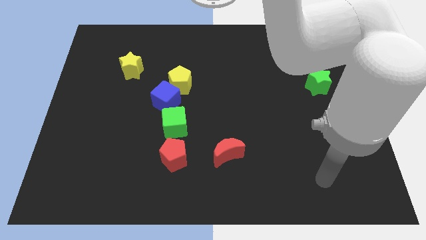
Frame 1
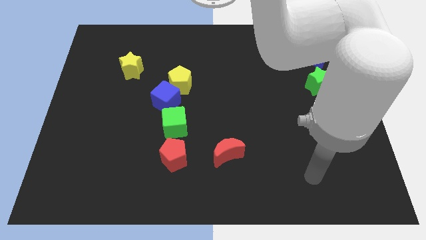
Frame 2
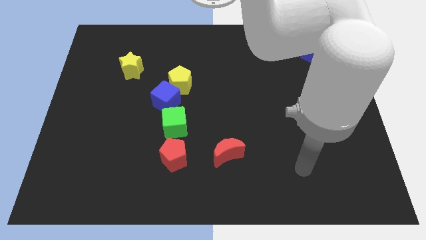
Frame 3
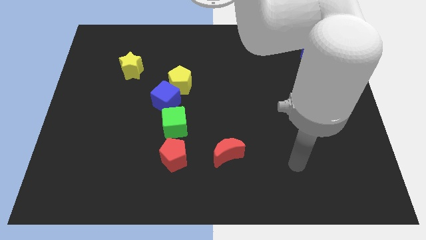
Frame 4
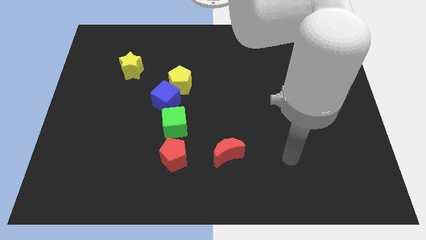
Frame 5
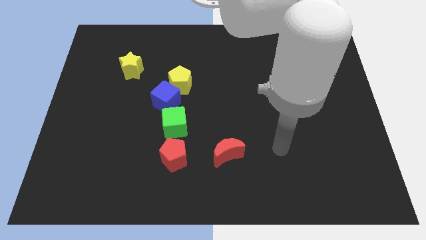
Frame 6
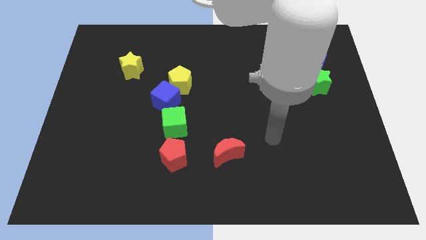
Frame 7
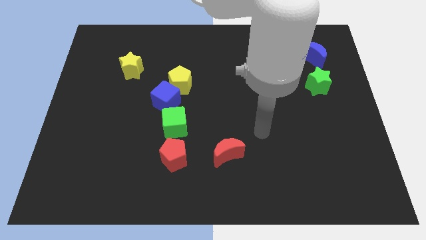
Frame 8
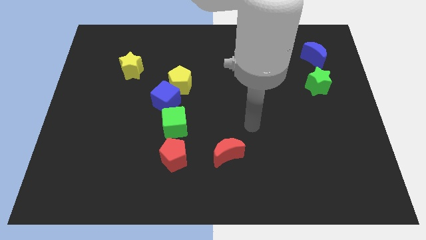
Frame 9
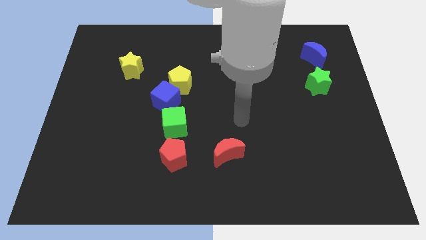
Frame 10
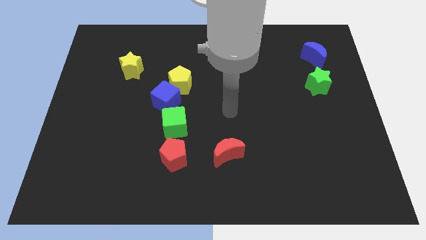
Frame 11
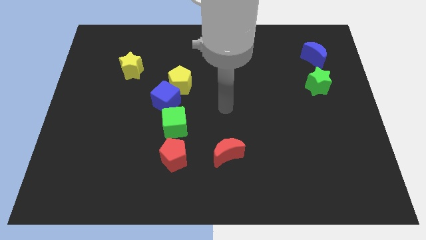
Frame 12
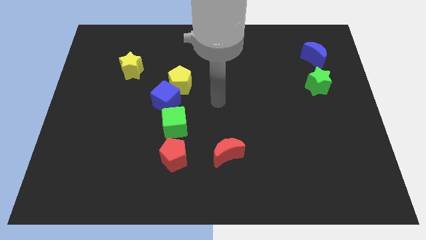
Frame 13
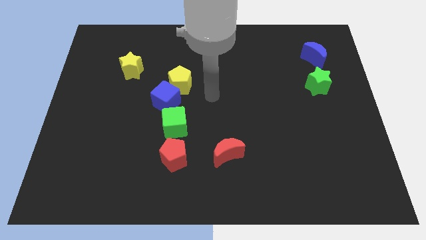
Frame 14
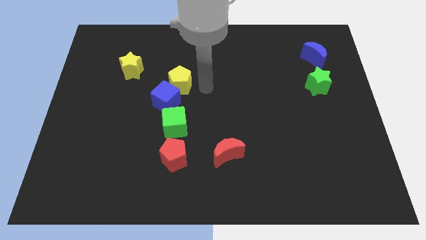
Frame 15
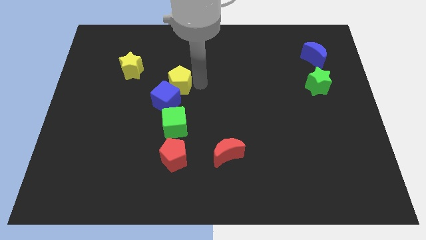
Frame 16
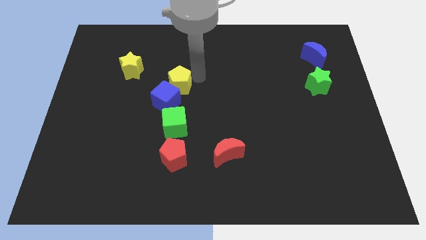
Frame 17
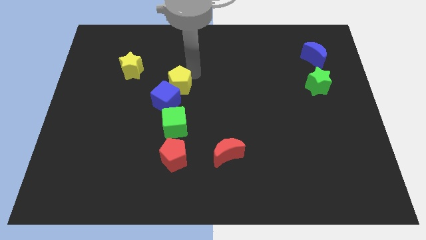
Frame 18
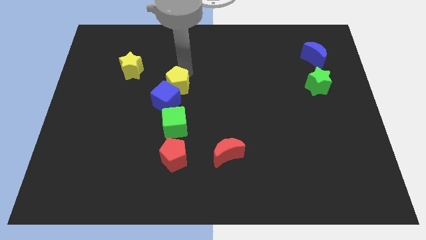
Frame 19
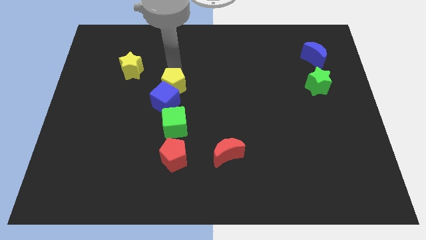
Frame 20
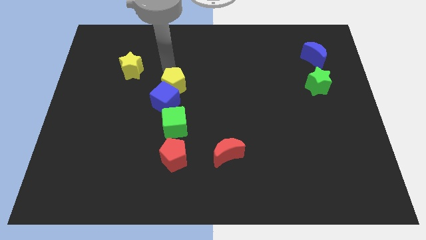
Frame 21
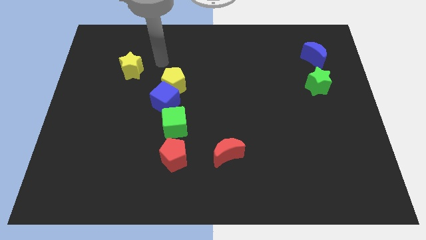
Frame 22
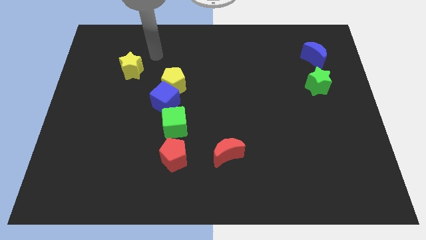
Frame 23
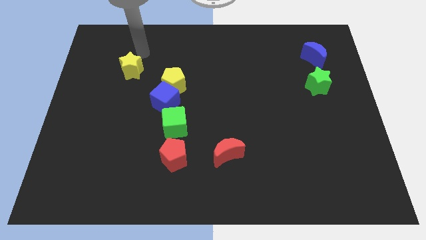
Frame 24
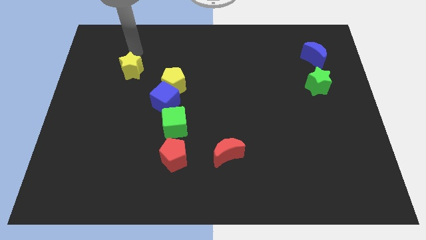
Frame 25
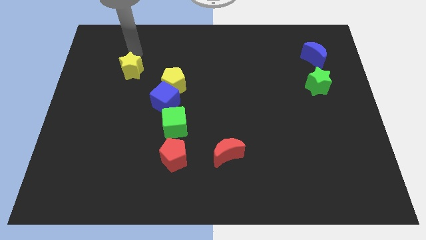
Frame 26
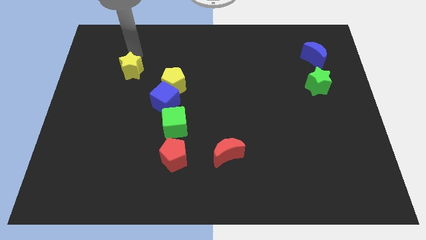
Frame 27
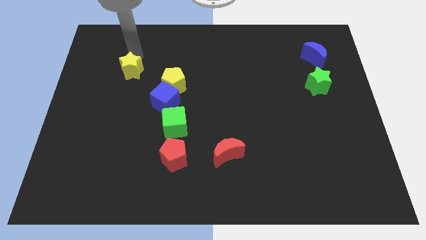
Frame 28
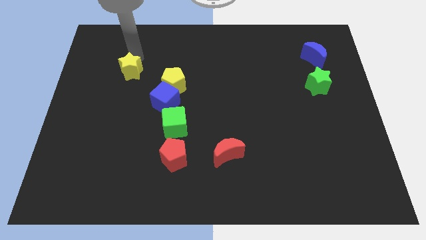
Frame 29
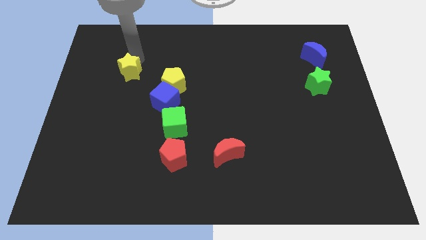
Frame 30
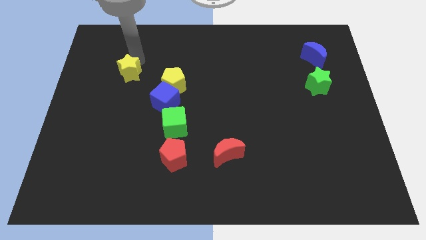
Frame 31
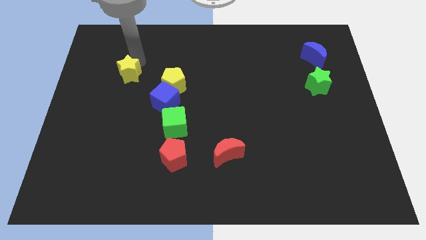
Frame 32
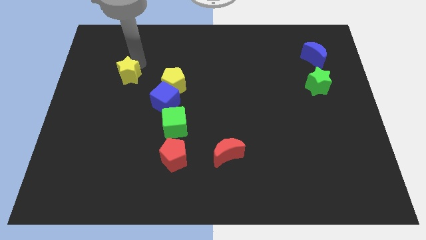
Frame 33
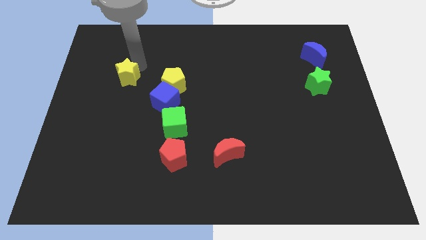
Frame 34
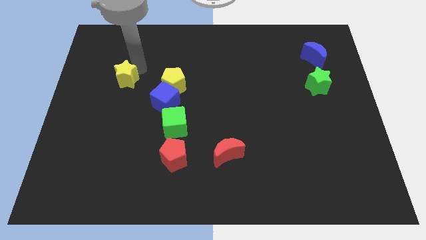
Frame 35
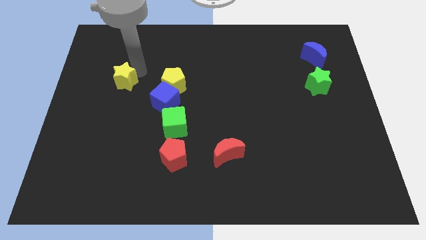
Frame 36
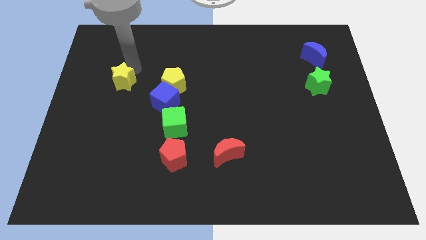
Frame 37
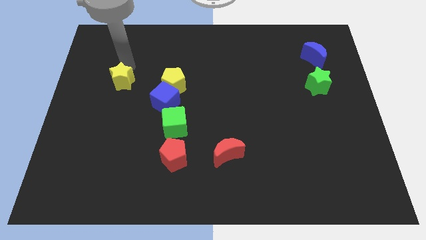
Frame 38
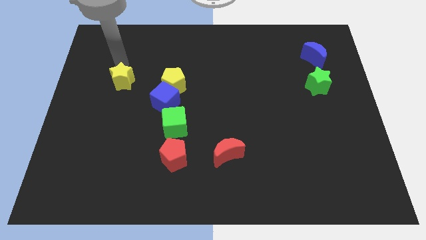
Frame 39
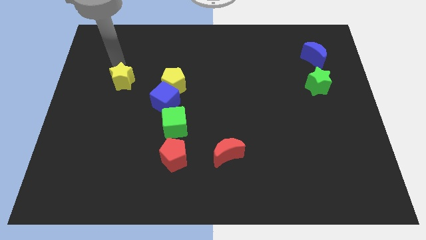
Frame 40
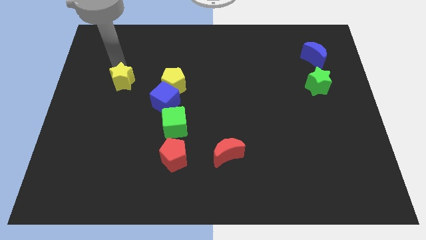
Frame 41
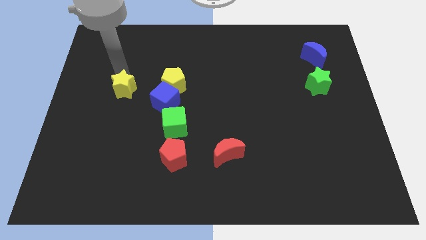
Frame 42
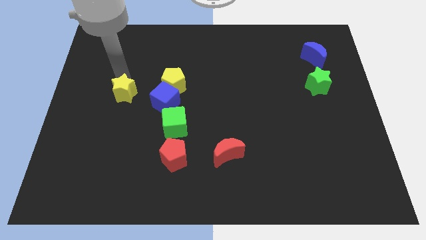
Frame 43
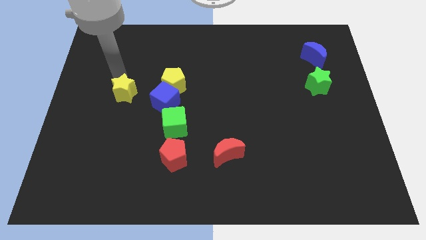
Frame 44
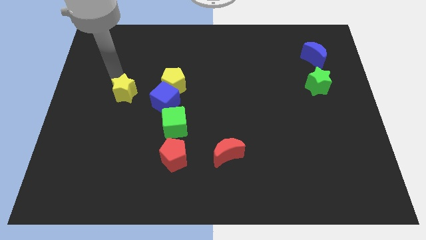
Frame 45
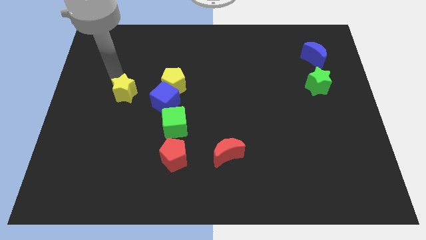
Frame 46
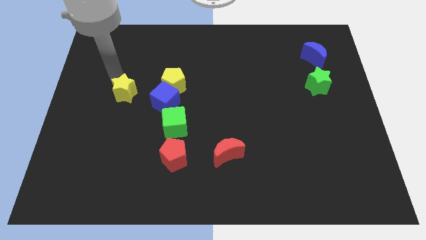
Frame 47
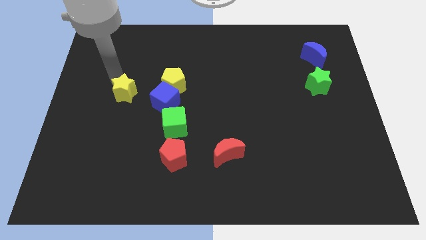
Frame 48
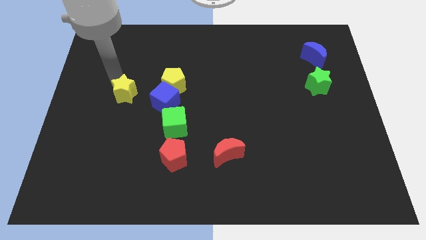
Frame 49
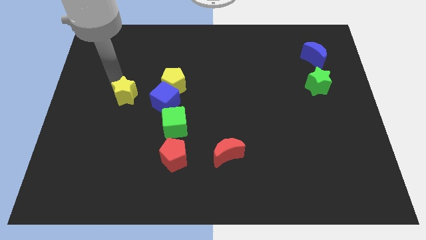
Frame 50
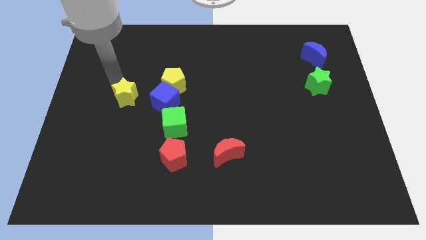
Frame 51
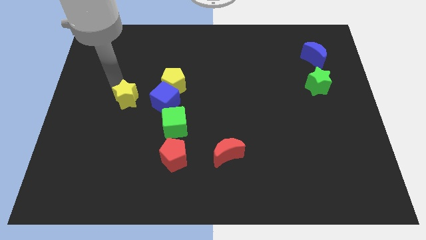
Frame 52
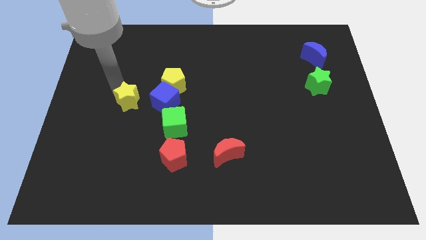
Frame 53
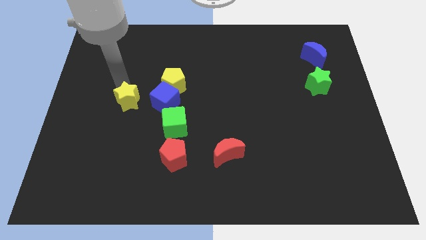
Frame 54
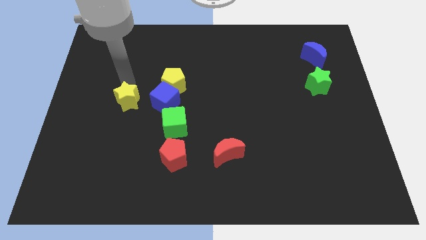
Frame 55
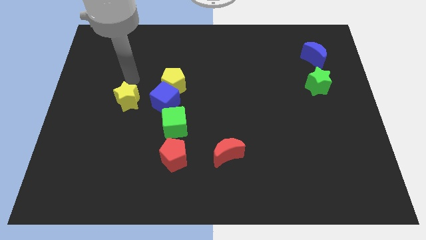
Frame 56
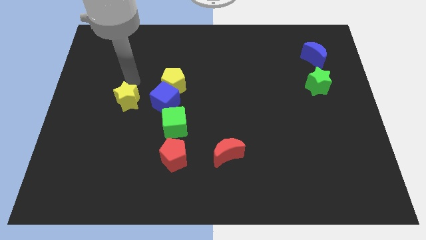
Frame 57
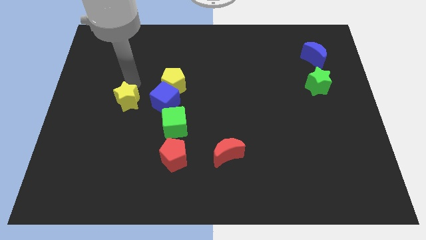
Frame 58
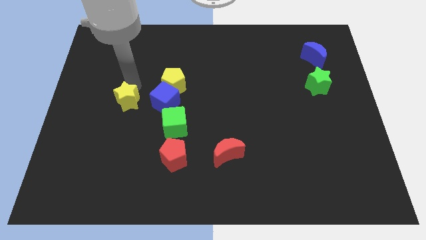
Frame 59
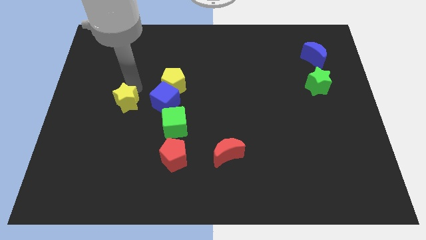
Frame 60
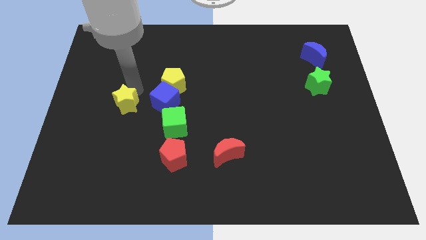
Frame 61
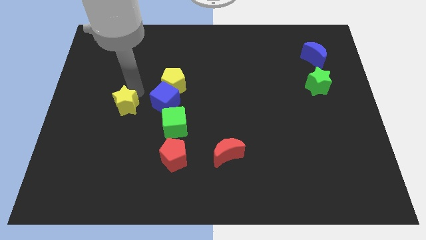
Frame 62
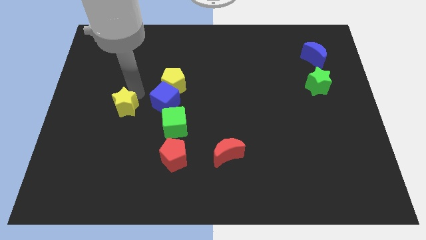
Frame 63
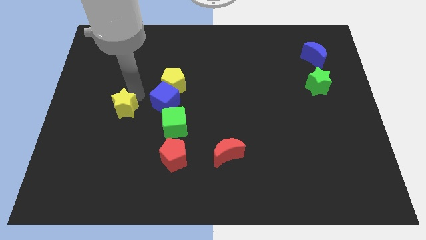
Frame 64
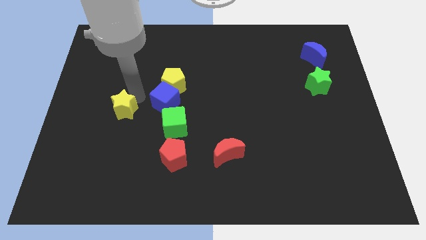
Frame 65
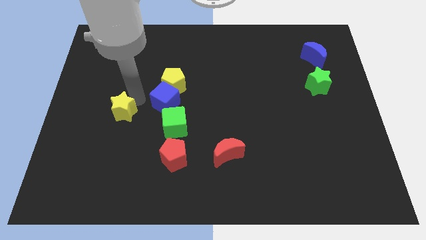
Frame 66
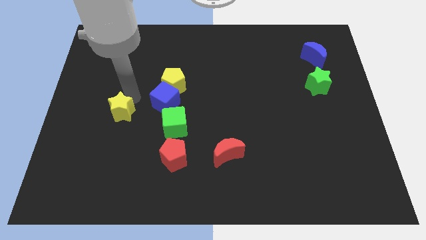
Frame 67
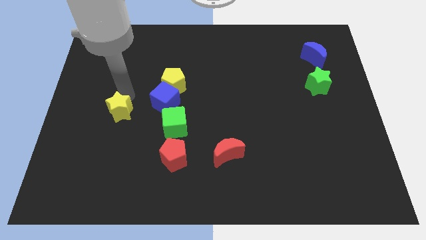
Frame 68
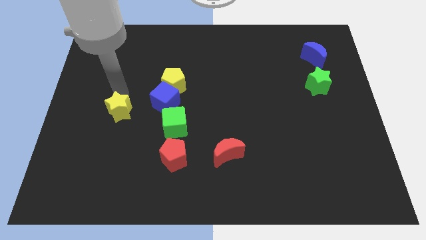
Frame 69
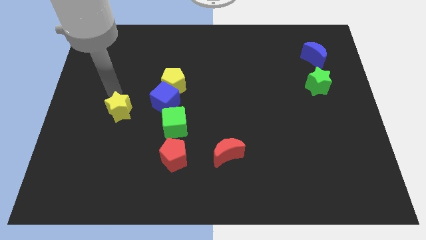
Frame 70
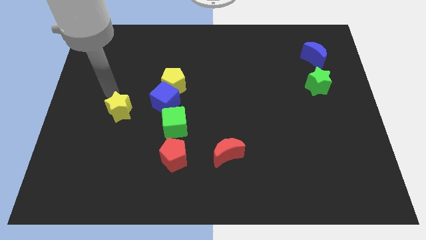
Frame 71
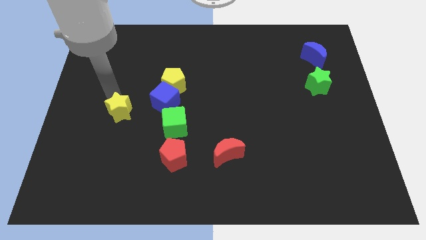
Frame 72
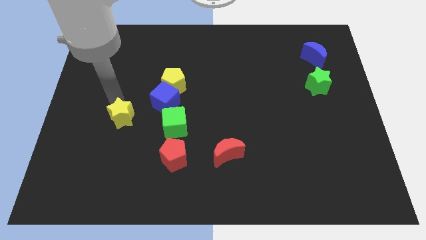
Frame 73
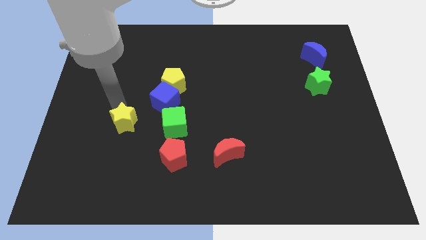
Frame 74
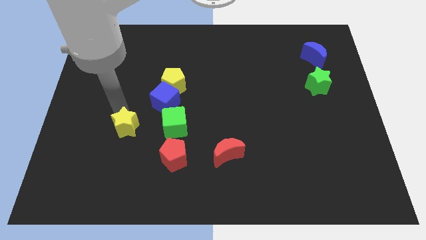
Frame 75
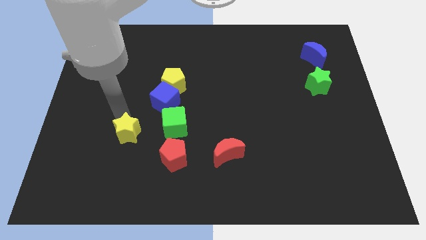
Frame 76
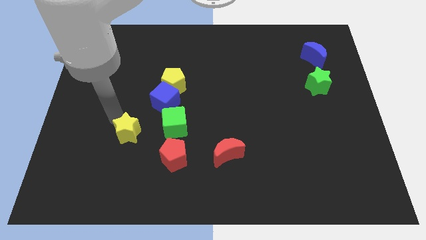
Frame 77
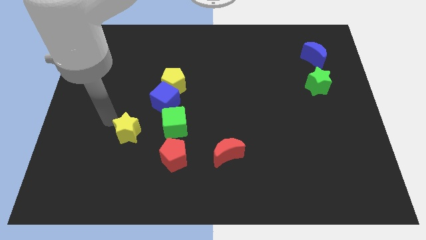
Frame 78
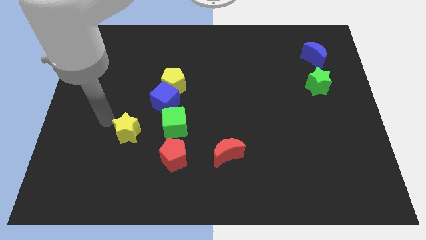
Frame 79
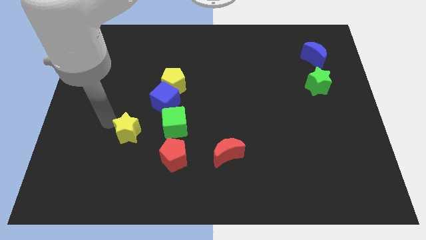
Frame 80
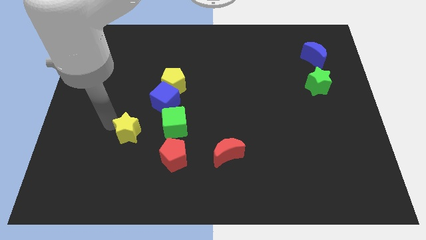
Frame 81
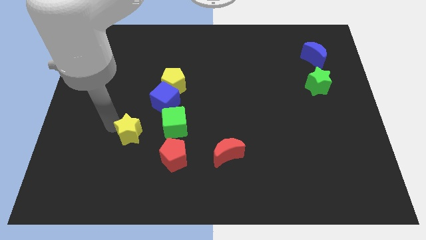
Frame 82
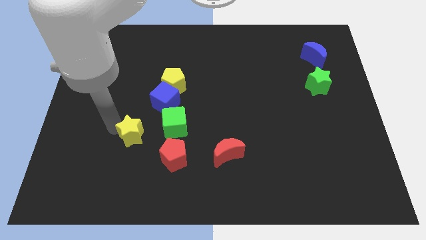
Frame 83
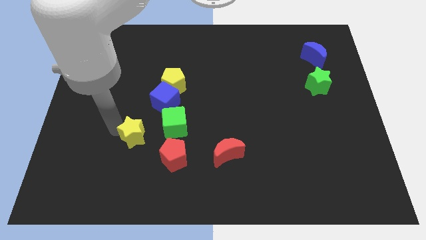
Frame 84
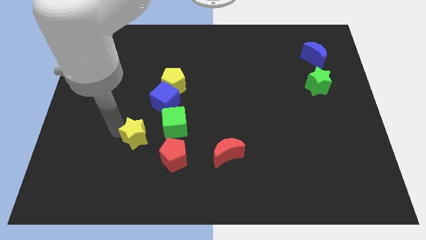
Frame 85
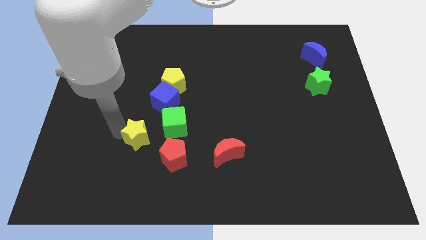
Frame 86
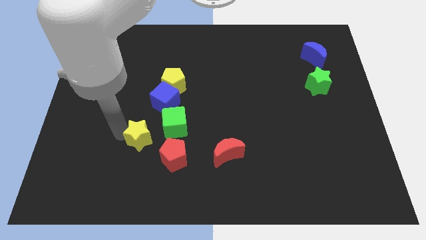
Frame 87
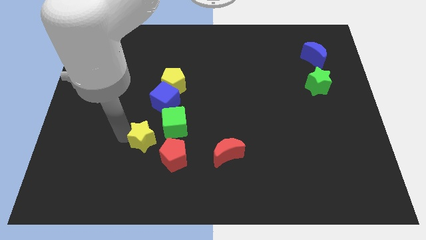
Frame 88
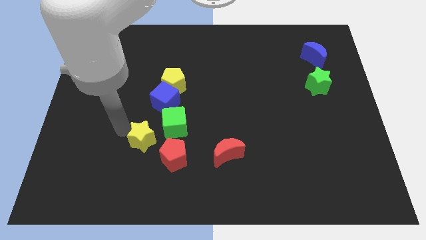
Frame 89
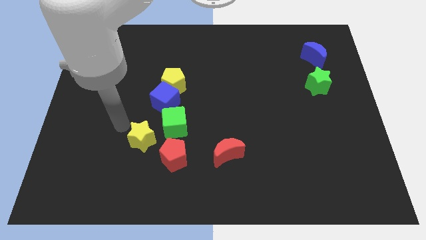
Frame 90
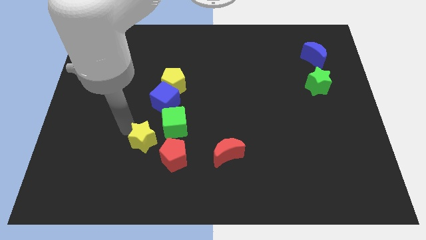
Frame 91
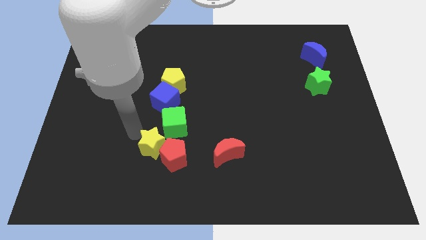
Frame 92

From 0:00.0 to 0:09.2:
push the yellow star next to the red pentagon
